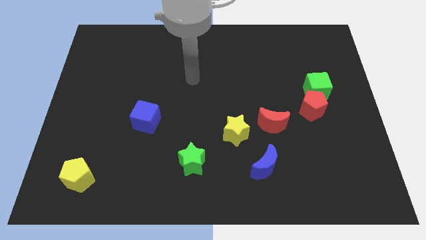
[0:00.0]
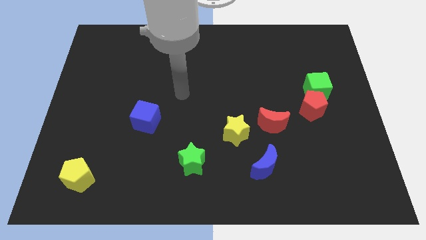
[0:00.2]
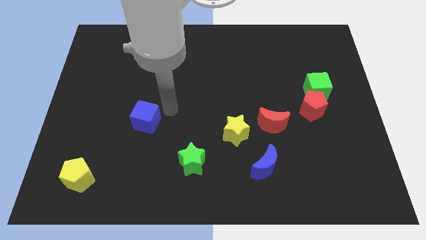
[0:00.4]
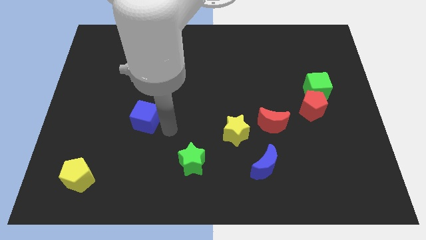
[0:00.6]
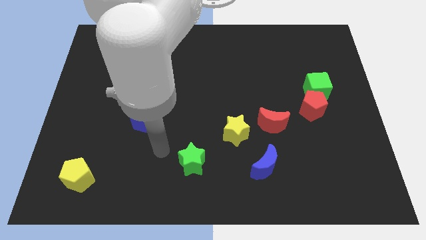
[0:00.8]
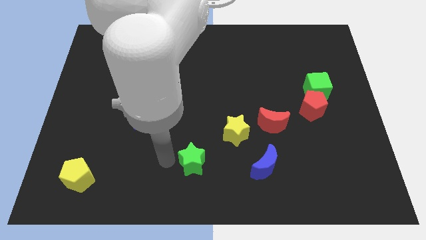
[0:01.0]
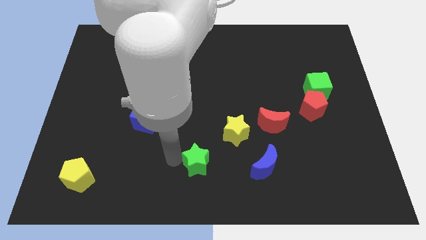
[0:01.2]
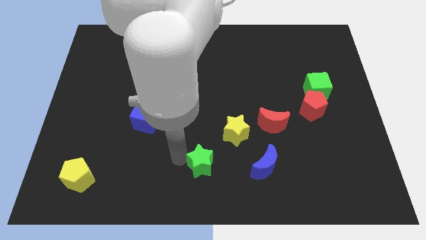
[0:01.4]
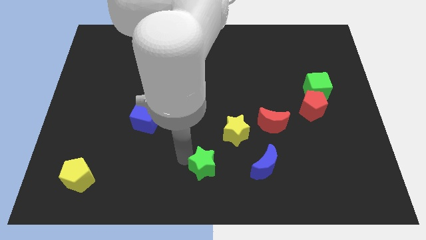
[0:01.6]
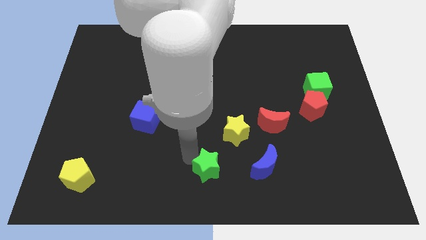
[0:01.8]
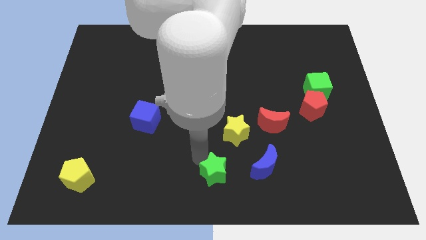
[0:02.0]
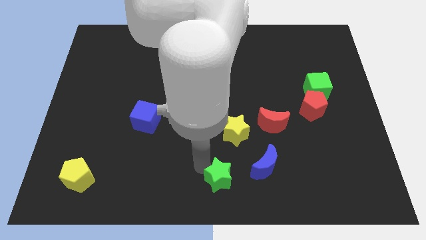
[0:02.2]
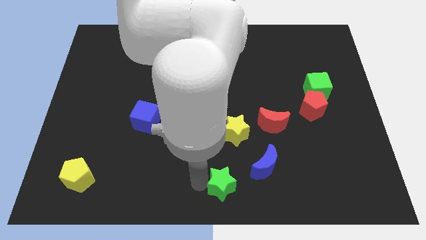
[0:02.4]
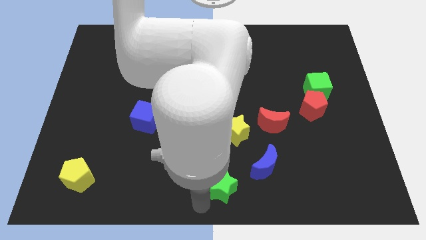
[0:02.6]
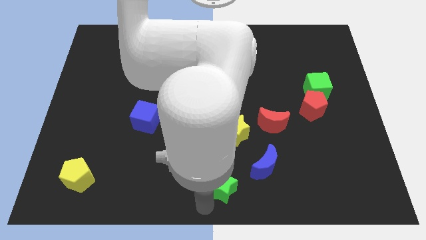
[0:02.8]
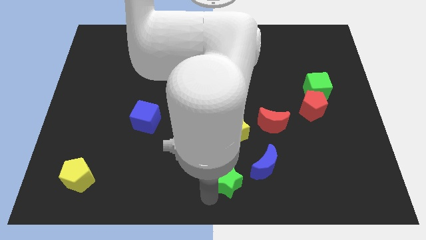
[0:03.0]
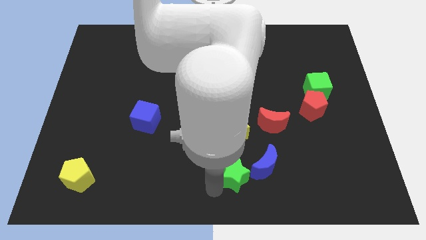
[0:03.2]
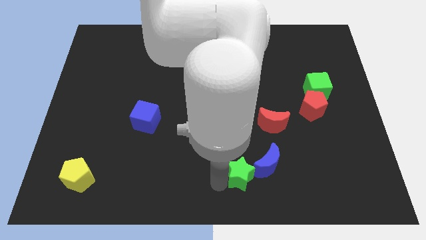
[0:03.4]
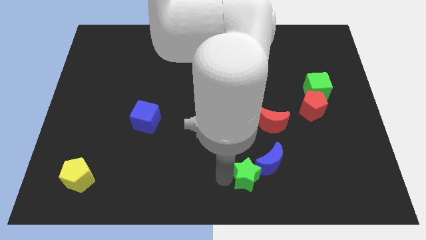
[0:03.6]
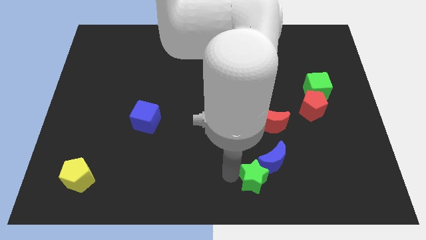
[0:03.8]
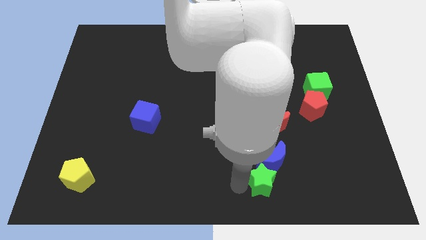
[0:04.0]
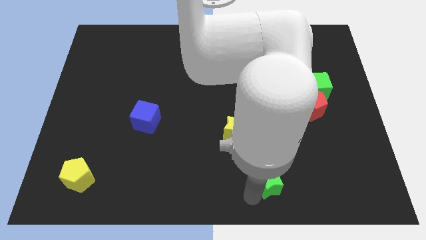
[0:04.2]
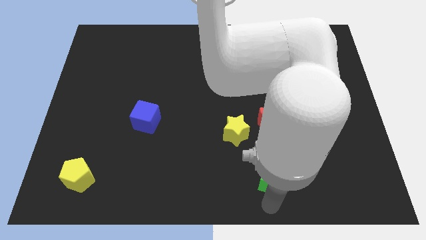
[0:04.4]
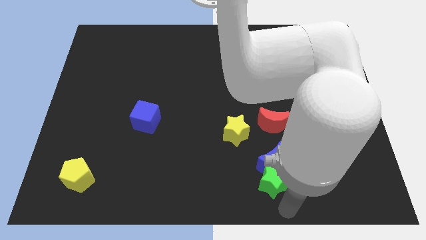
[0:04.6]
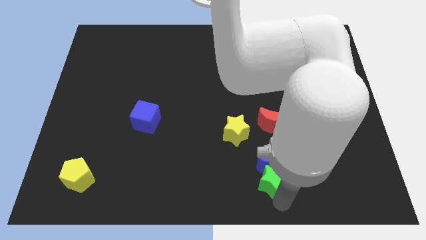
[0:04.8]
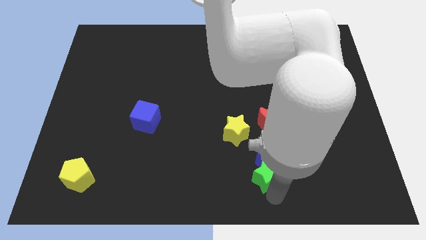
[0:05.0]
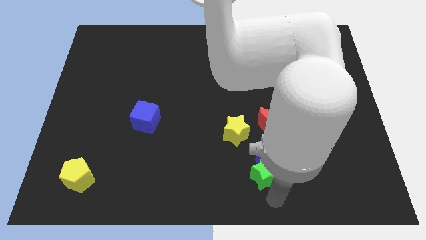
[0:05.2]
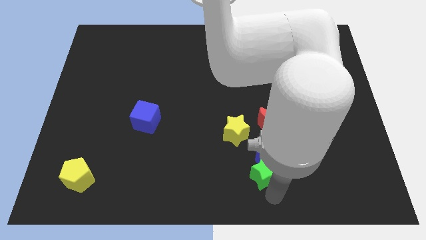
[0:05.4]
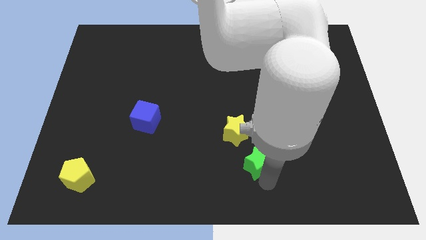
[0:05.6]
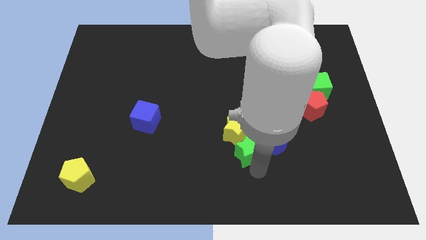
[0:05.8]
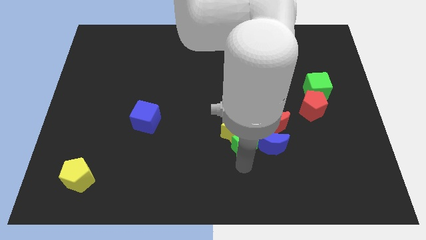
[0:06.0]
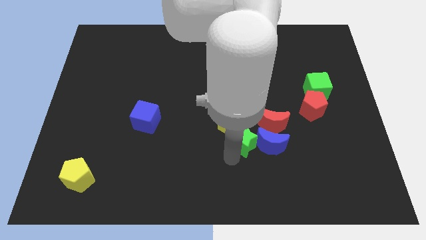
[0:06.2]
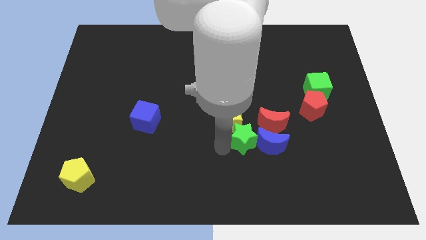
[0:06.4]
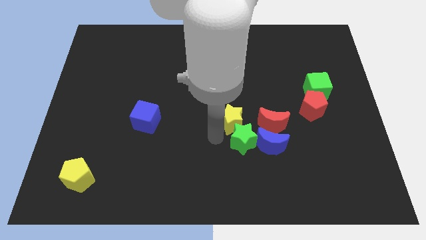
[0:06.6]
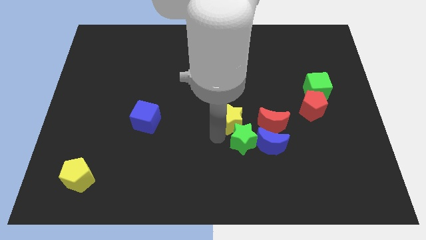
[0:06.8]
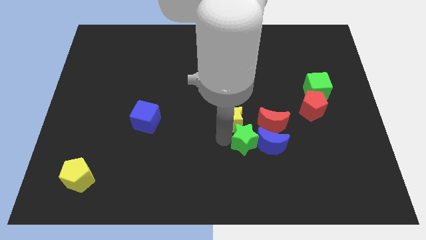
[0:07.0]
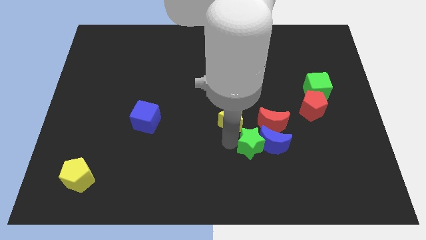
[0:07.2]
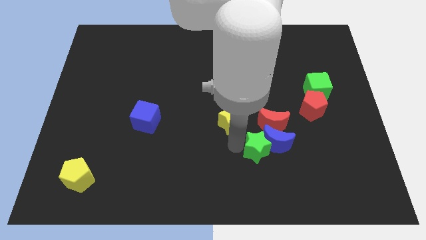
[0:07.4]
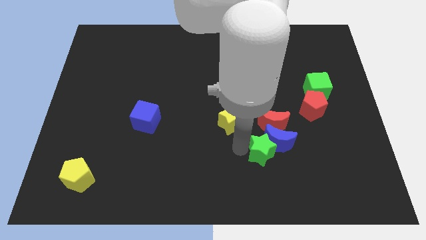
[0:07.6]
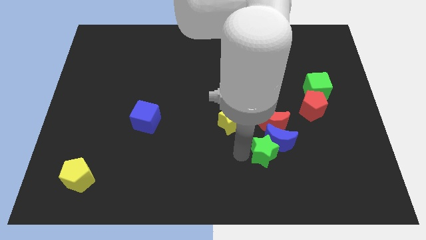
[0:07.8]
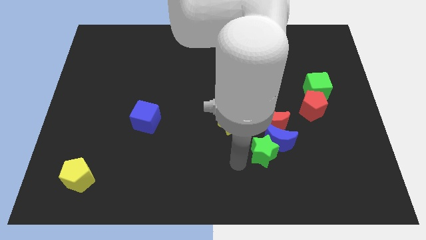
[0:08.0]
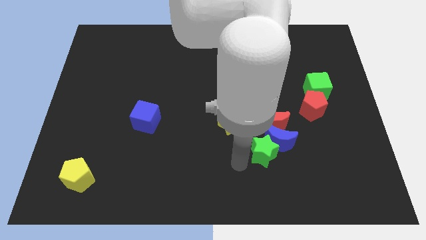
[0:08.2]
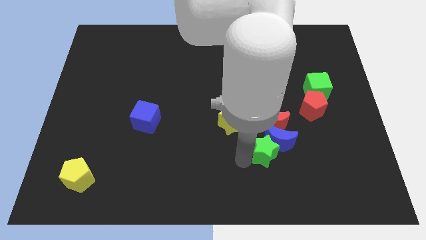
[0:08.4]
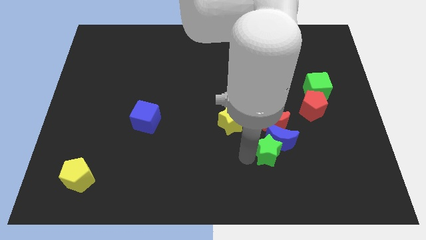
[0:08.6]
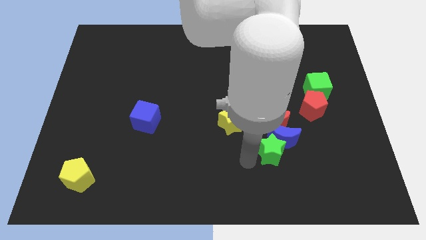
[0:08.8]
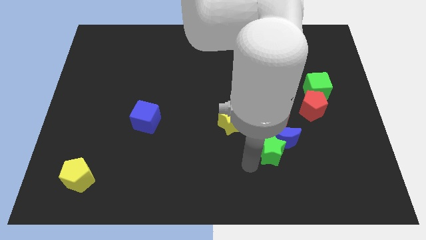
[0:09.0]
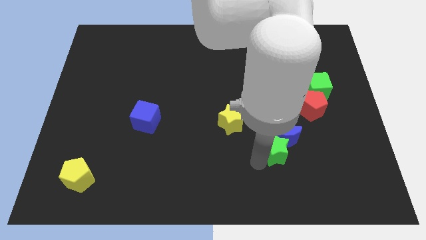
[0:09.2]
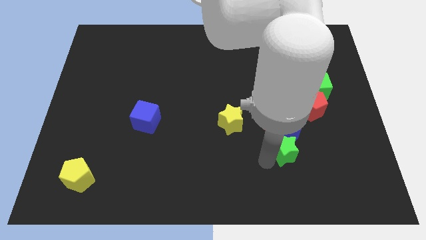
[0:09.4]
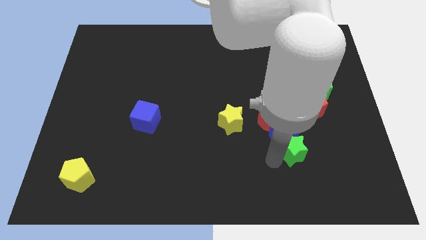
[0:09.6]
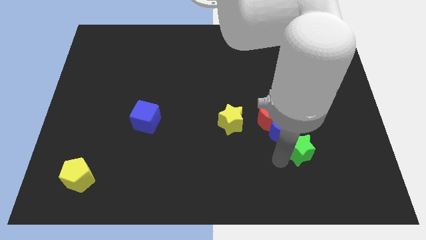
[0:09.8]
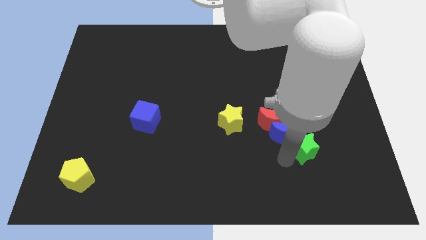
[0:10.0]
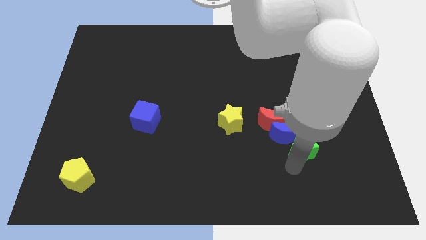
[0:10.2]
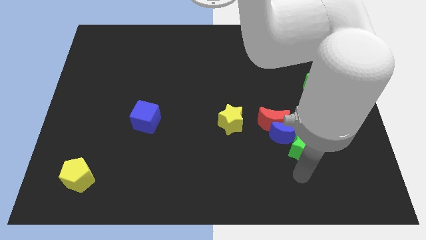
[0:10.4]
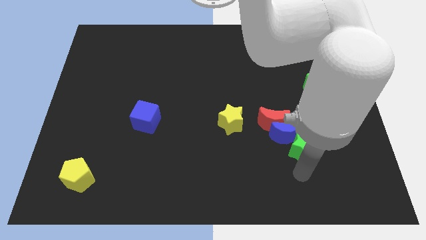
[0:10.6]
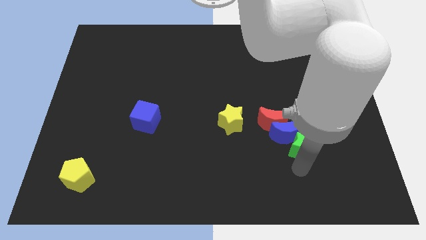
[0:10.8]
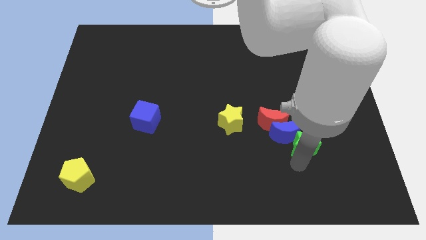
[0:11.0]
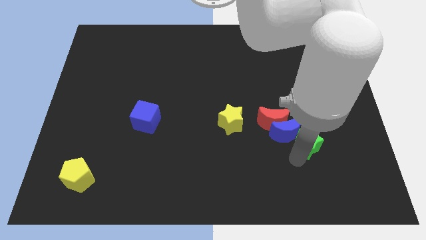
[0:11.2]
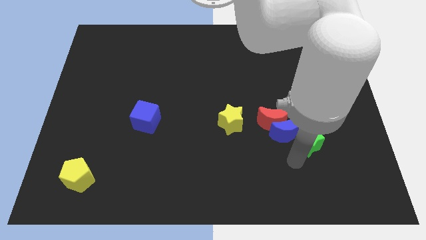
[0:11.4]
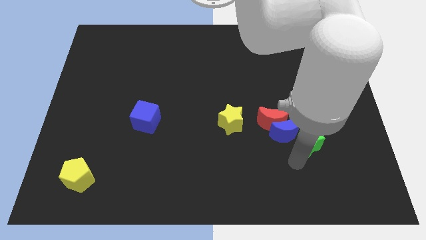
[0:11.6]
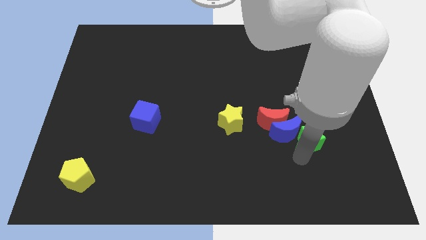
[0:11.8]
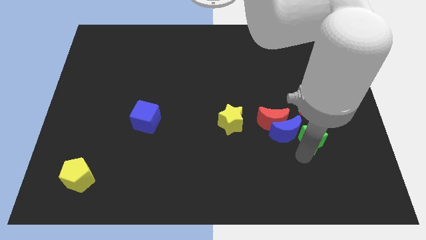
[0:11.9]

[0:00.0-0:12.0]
put the green star to the right of the red moon

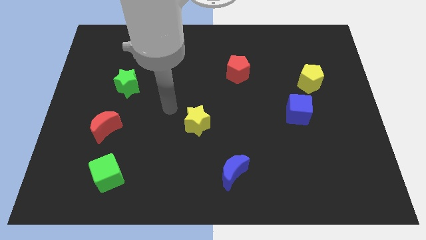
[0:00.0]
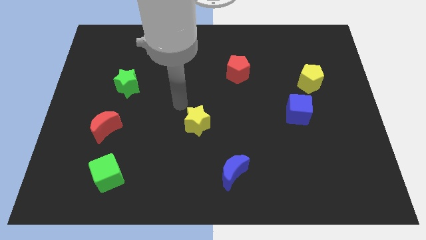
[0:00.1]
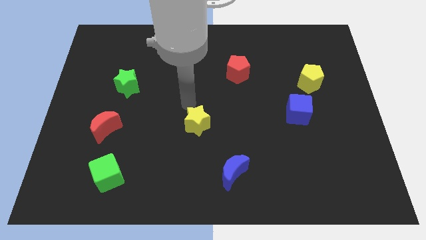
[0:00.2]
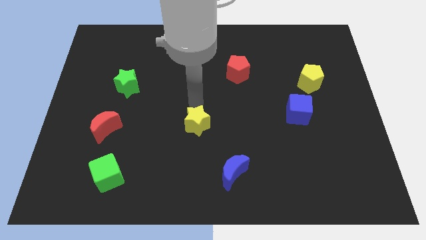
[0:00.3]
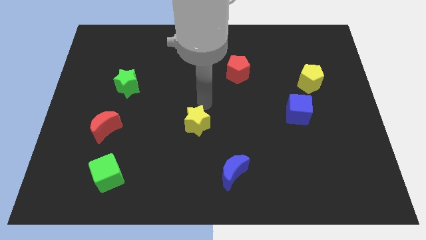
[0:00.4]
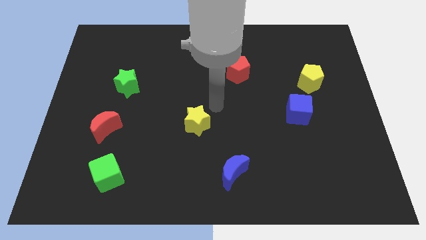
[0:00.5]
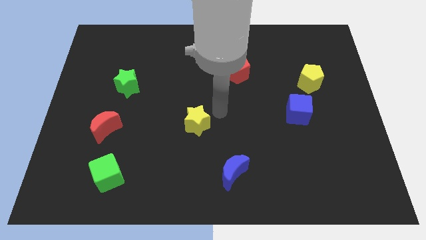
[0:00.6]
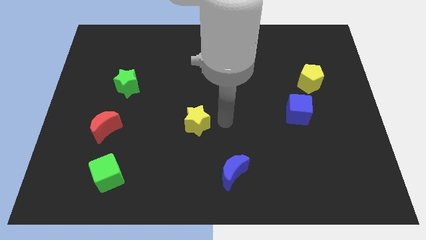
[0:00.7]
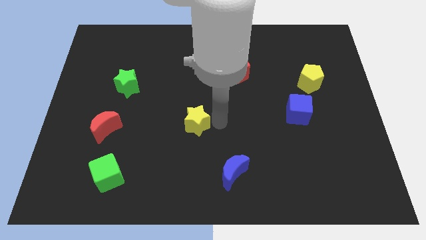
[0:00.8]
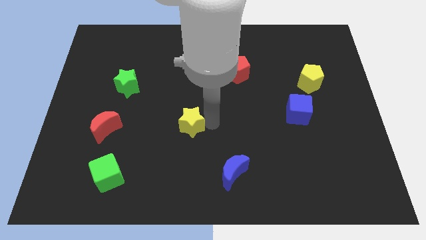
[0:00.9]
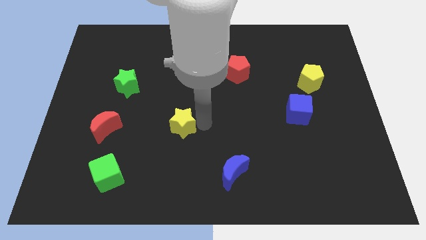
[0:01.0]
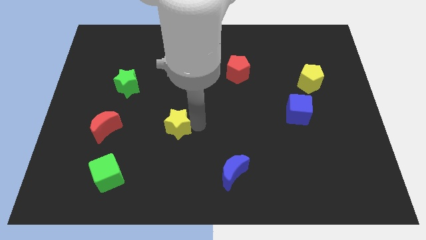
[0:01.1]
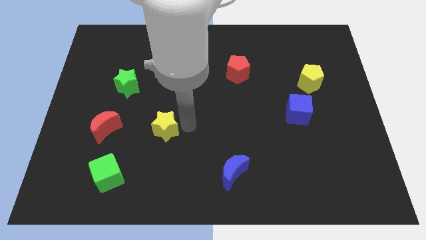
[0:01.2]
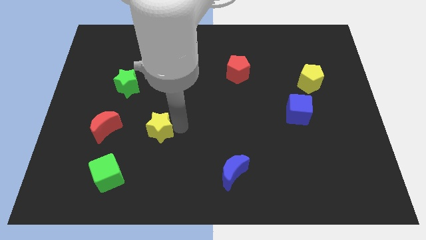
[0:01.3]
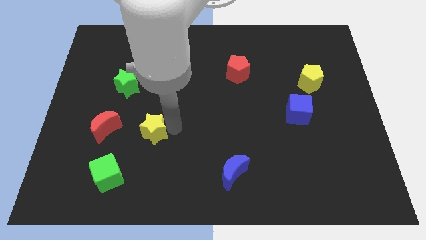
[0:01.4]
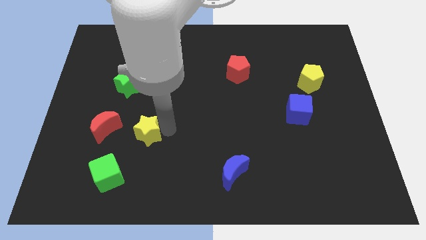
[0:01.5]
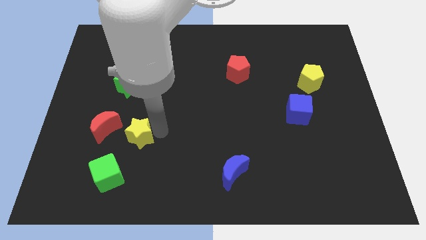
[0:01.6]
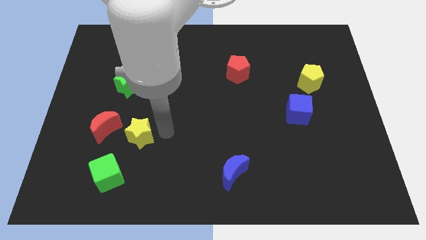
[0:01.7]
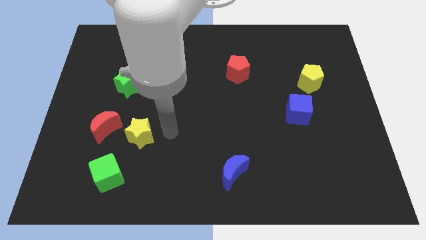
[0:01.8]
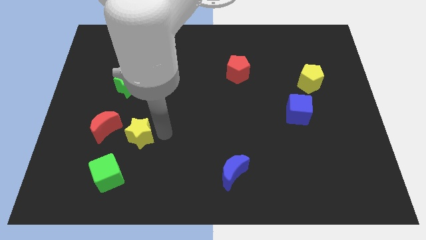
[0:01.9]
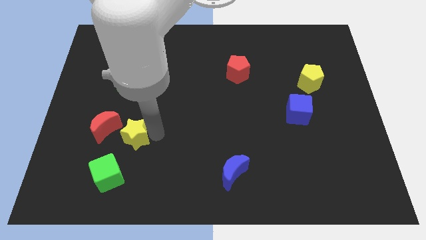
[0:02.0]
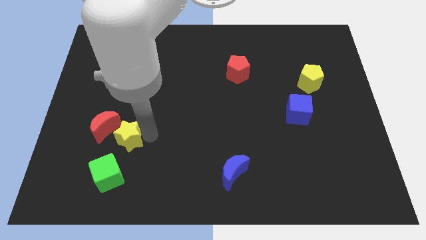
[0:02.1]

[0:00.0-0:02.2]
push the yellow star below the green star
